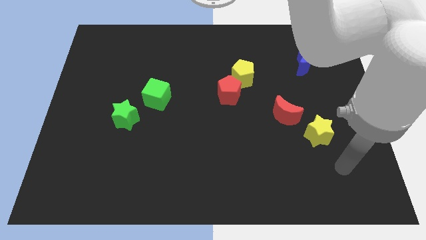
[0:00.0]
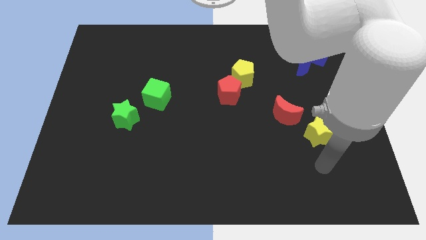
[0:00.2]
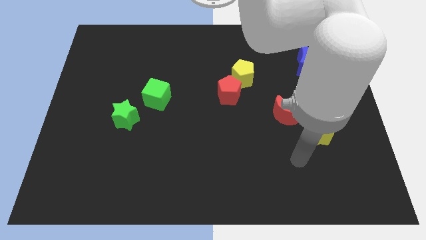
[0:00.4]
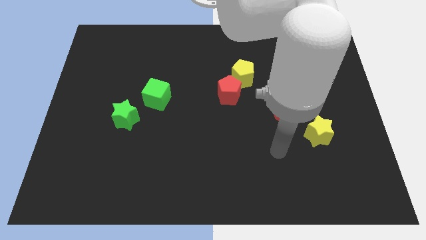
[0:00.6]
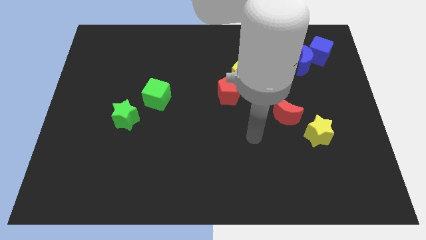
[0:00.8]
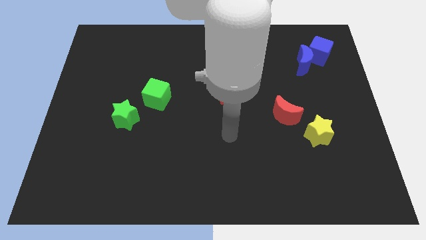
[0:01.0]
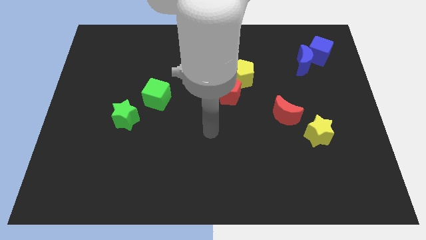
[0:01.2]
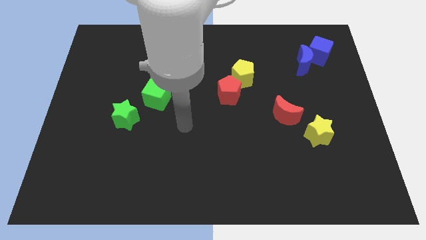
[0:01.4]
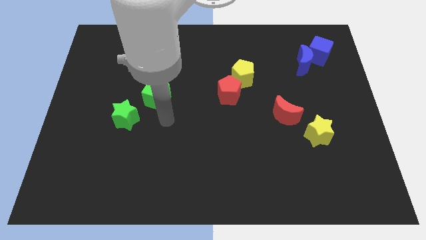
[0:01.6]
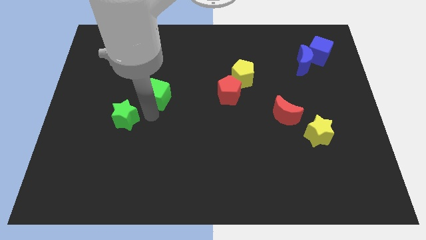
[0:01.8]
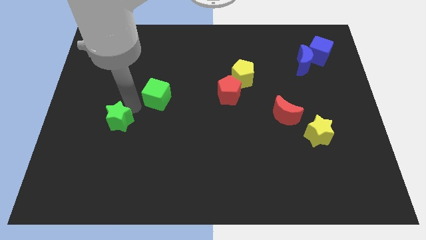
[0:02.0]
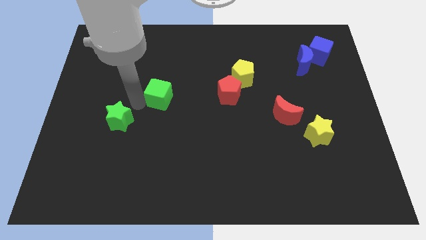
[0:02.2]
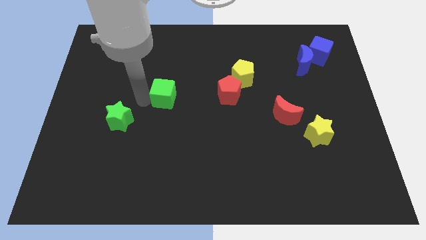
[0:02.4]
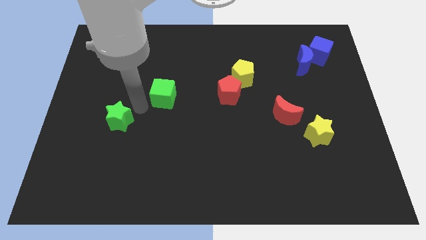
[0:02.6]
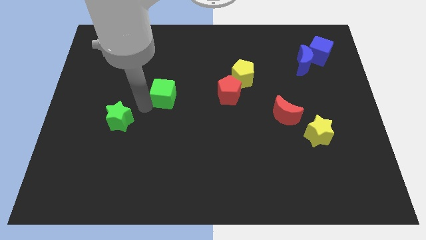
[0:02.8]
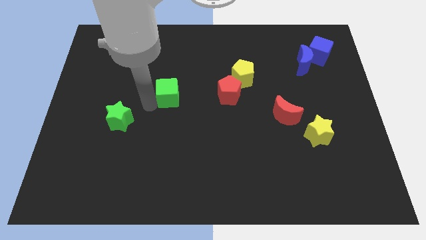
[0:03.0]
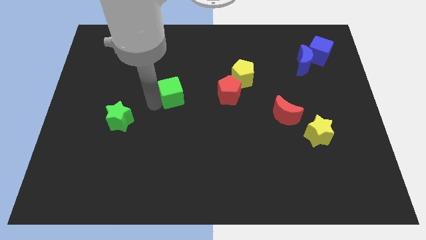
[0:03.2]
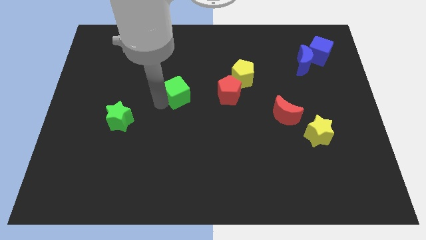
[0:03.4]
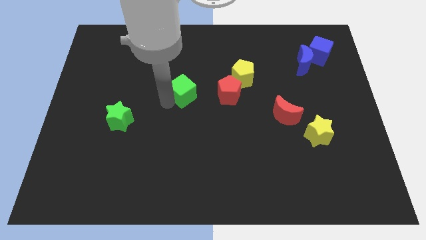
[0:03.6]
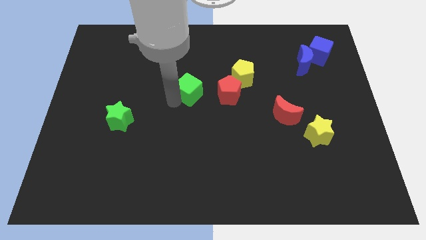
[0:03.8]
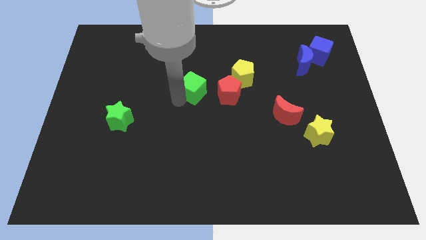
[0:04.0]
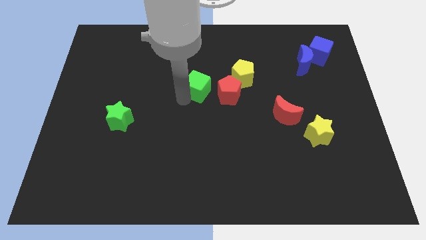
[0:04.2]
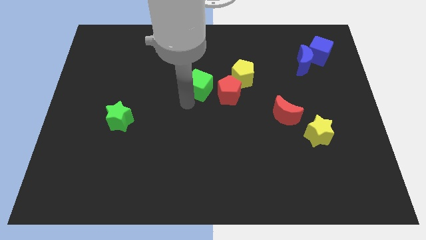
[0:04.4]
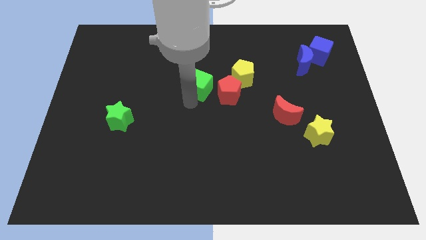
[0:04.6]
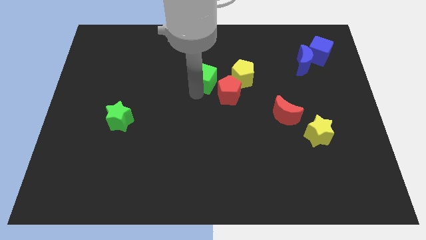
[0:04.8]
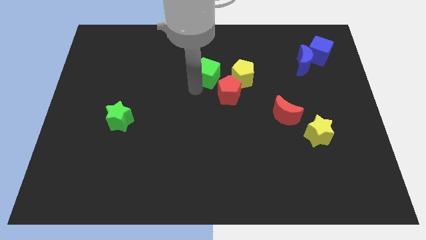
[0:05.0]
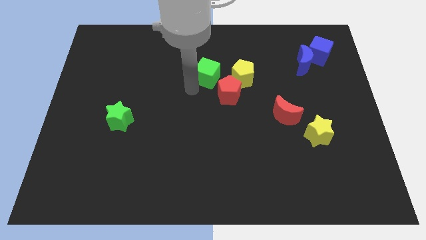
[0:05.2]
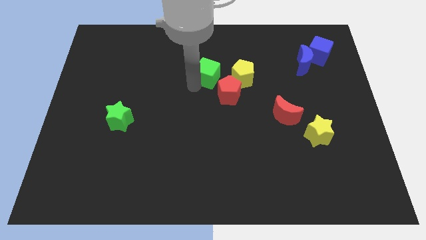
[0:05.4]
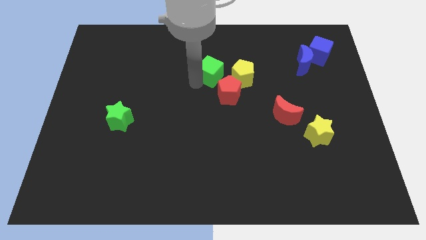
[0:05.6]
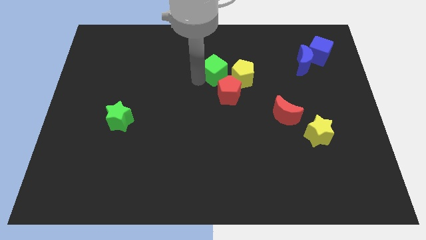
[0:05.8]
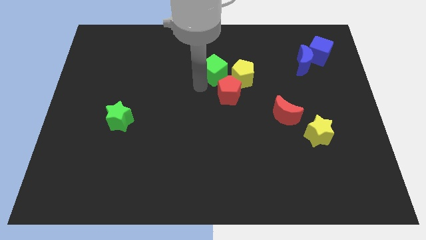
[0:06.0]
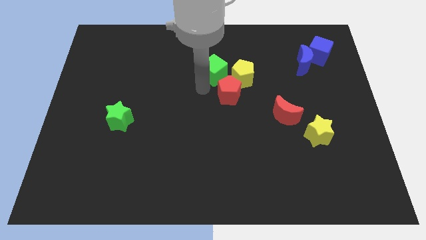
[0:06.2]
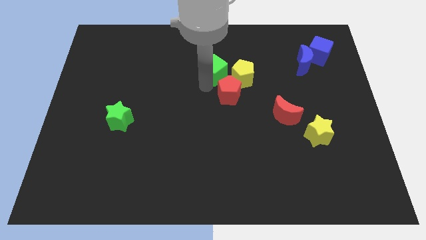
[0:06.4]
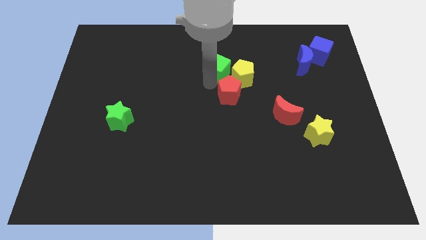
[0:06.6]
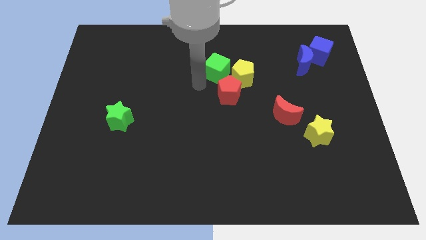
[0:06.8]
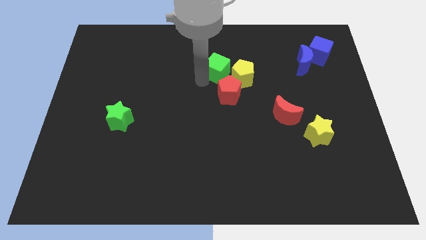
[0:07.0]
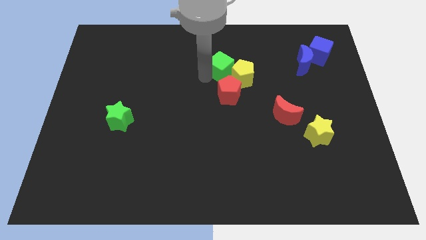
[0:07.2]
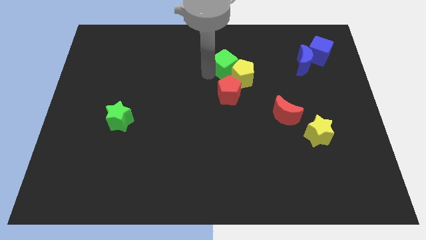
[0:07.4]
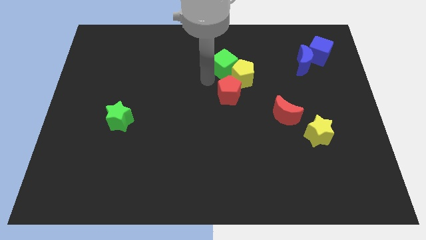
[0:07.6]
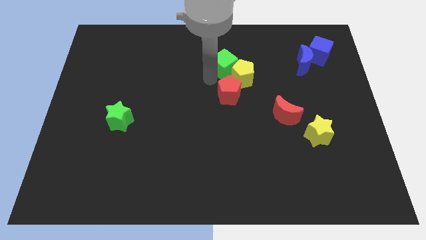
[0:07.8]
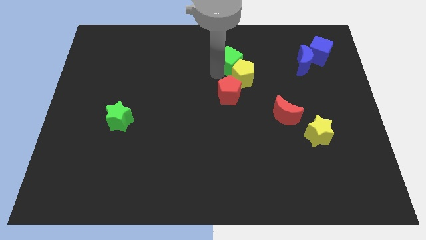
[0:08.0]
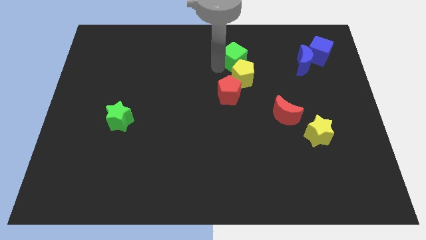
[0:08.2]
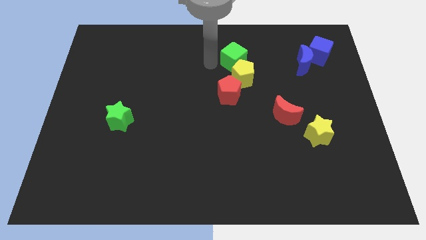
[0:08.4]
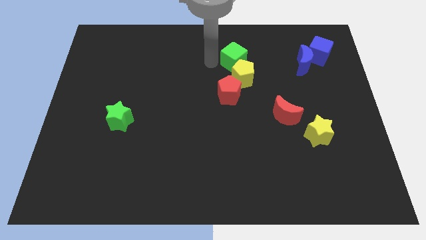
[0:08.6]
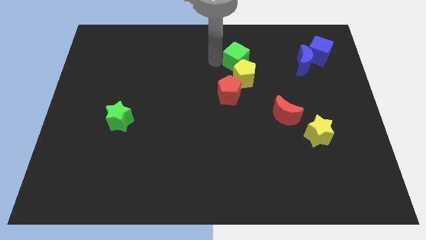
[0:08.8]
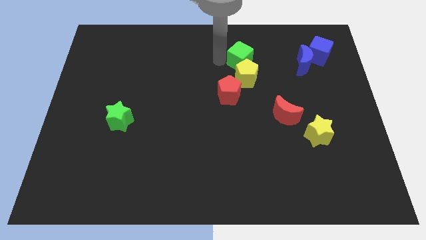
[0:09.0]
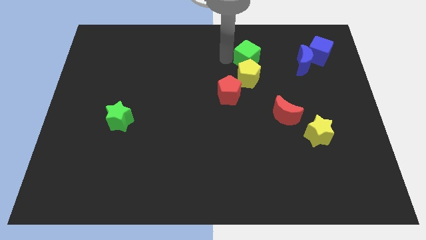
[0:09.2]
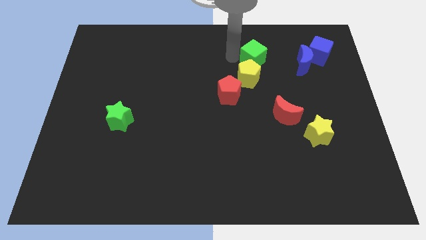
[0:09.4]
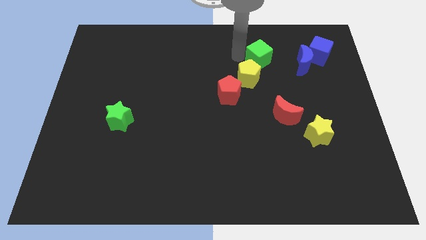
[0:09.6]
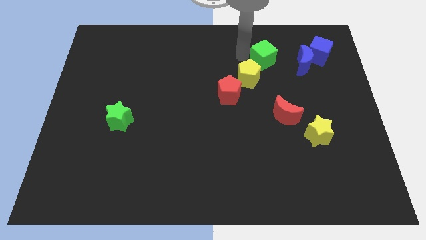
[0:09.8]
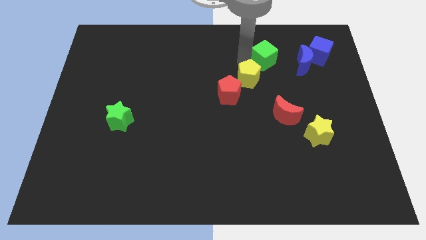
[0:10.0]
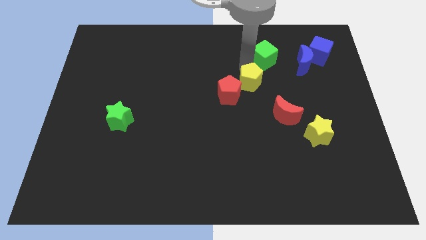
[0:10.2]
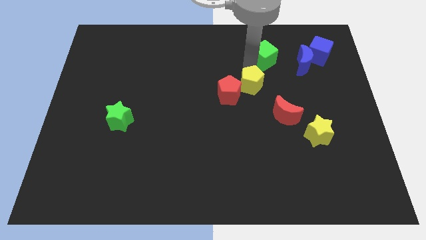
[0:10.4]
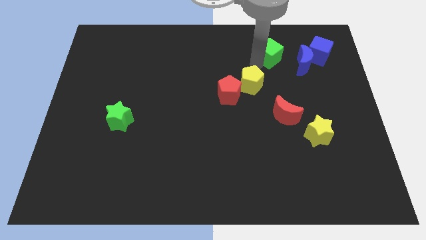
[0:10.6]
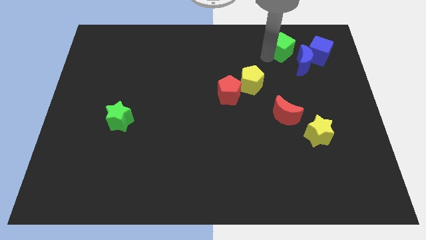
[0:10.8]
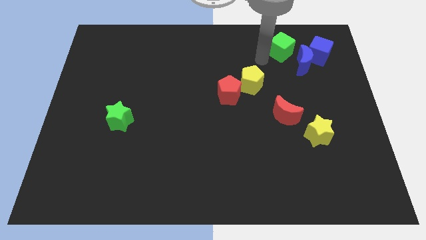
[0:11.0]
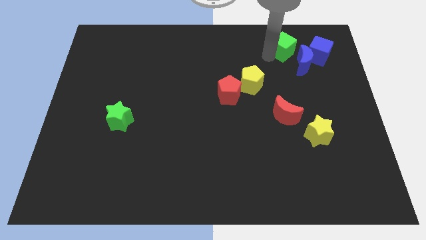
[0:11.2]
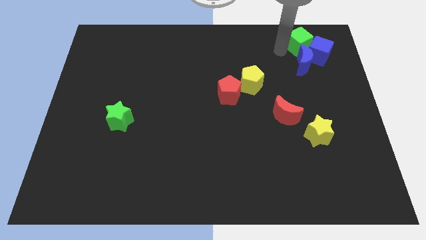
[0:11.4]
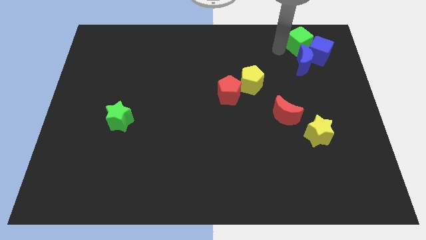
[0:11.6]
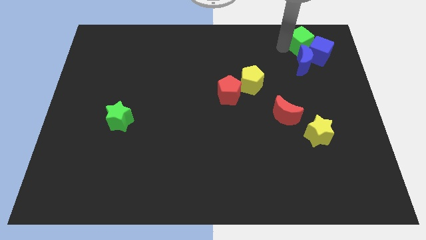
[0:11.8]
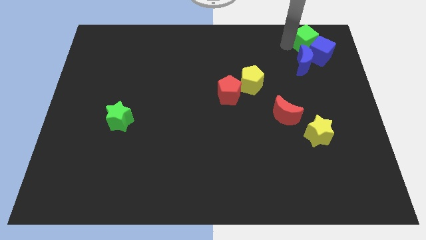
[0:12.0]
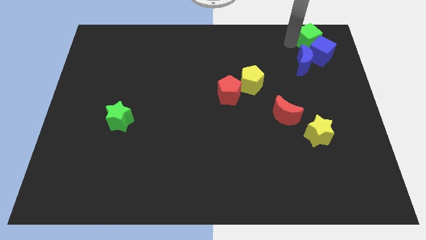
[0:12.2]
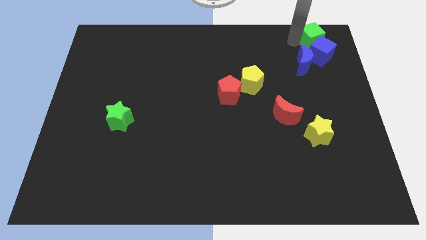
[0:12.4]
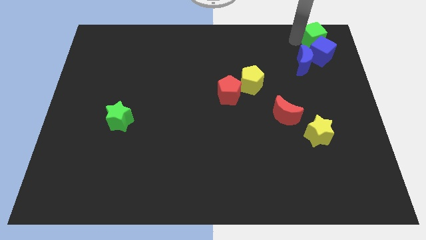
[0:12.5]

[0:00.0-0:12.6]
move the green cube to the top right corner
